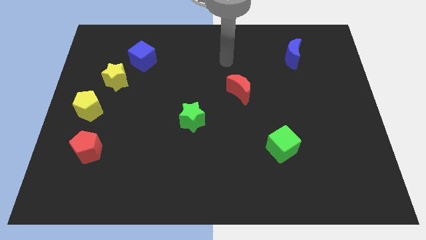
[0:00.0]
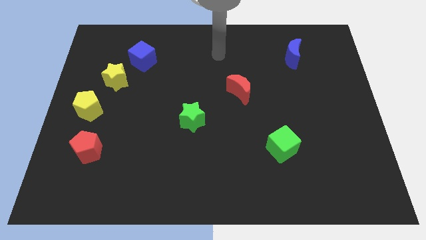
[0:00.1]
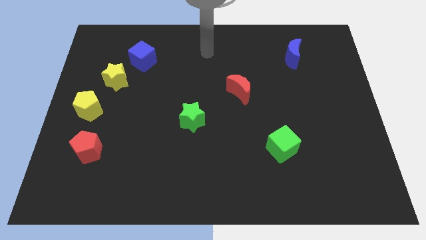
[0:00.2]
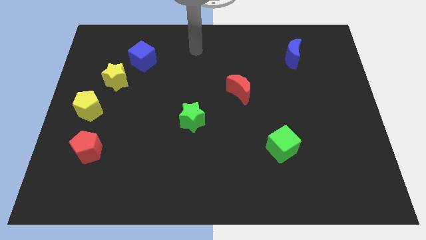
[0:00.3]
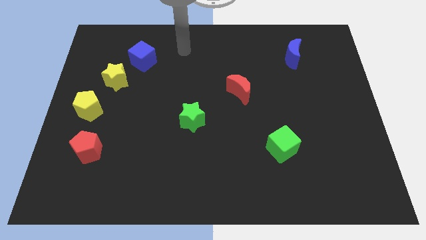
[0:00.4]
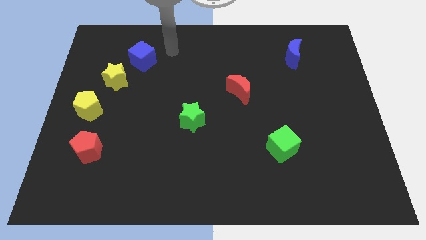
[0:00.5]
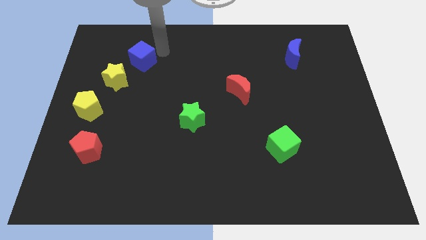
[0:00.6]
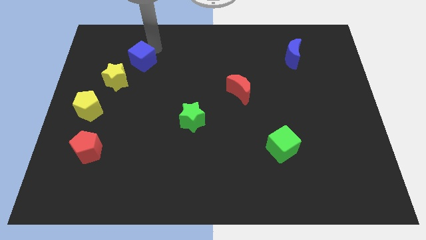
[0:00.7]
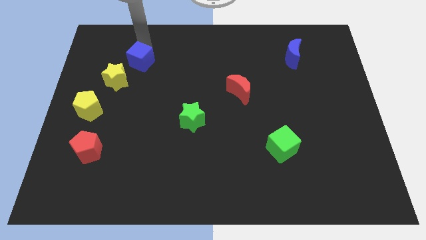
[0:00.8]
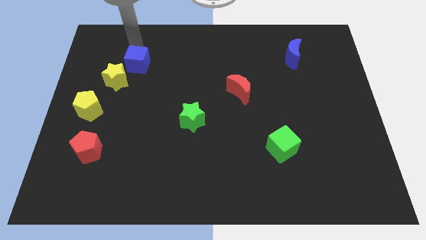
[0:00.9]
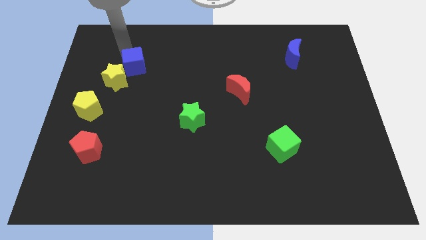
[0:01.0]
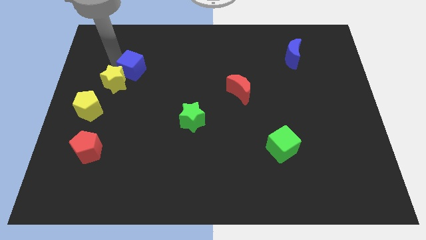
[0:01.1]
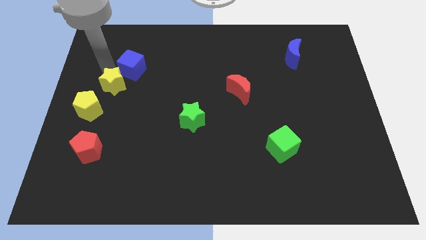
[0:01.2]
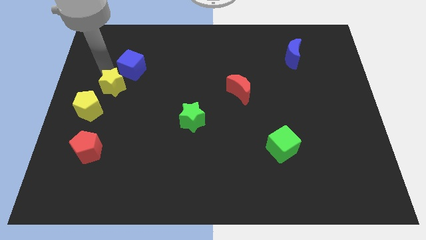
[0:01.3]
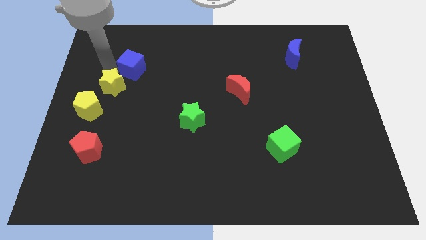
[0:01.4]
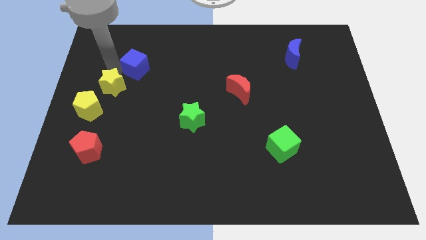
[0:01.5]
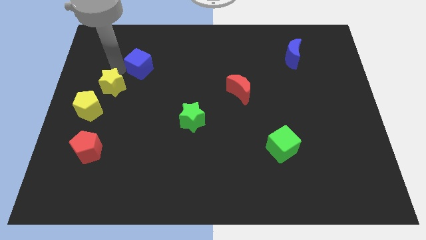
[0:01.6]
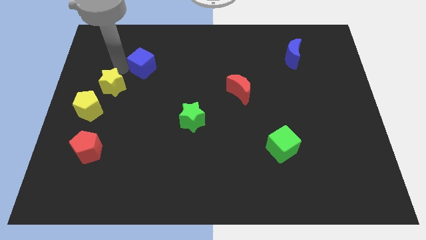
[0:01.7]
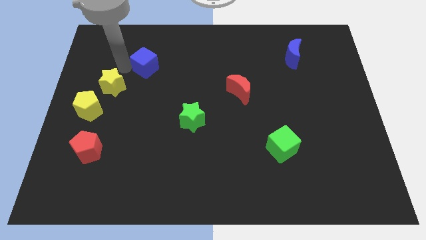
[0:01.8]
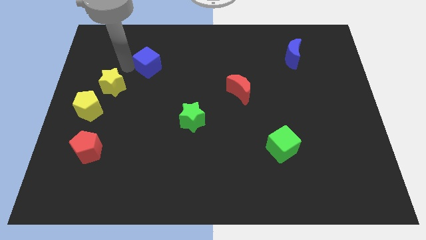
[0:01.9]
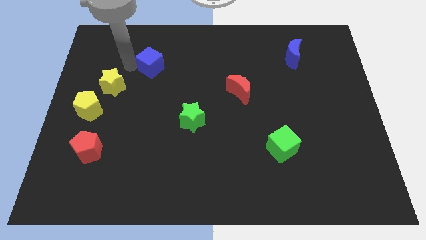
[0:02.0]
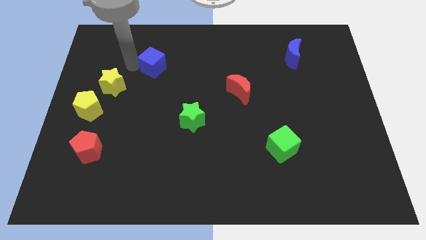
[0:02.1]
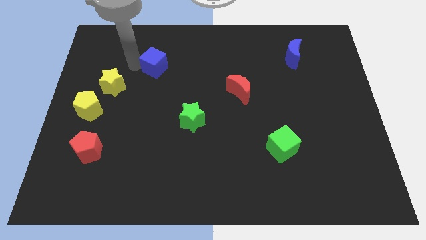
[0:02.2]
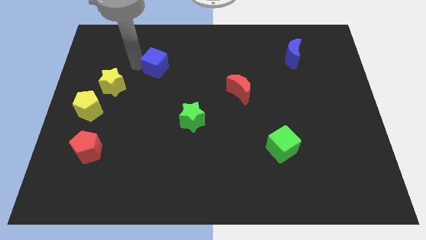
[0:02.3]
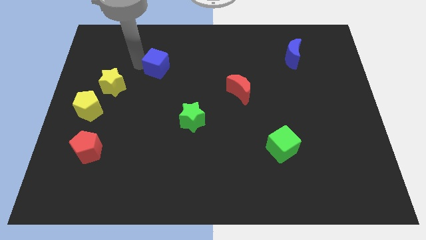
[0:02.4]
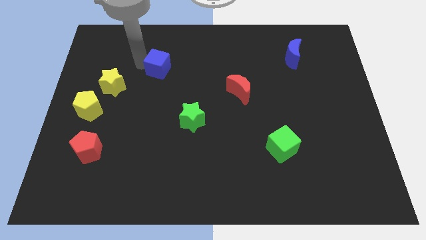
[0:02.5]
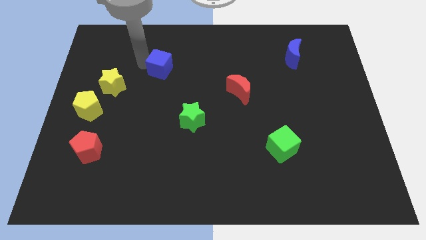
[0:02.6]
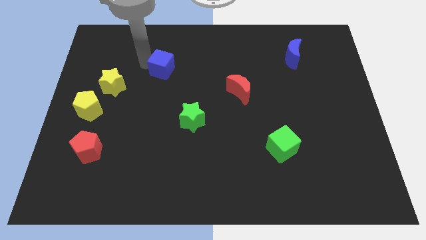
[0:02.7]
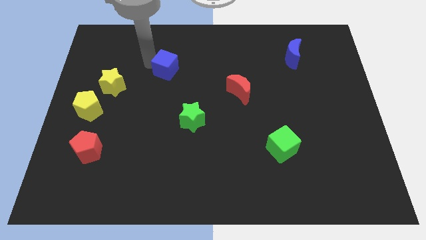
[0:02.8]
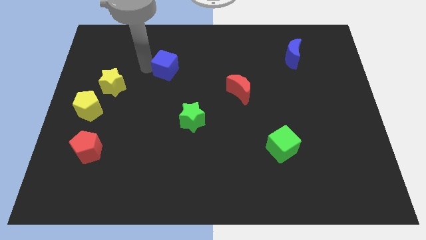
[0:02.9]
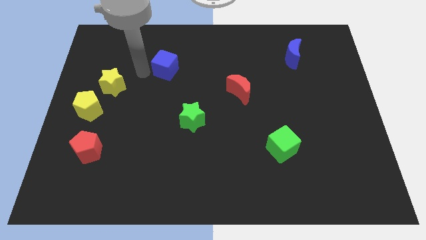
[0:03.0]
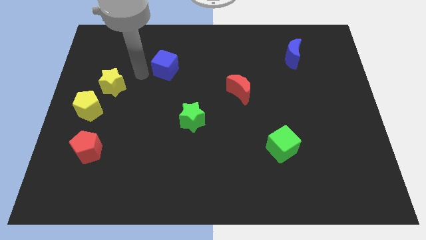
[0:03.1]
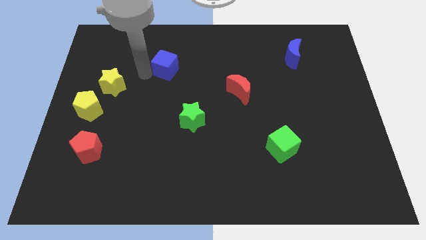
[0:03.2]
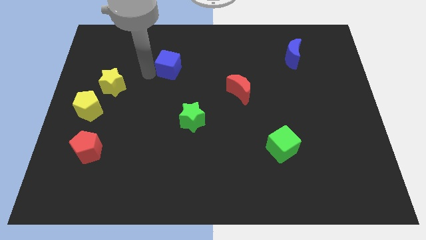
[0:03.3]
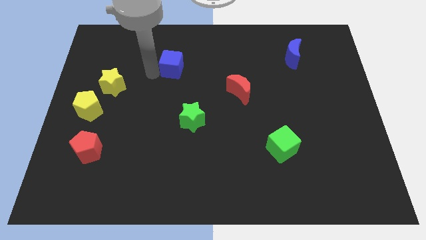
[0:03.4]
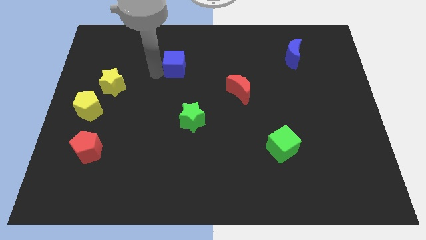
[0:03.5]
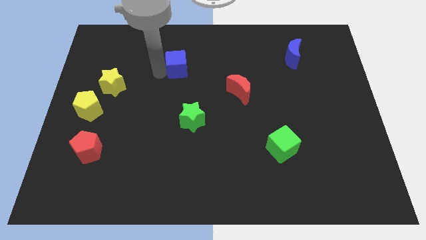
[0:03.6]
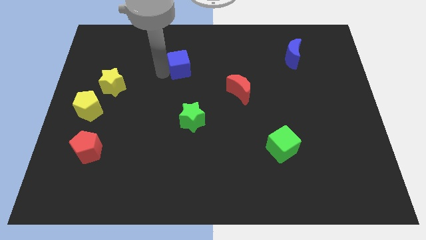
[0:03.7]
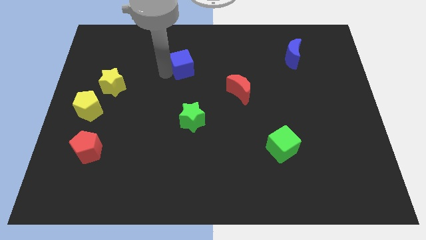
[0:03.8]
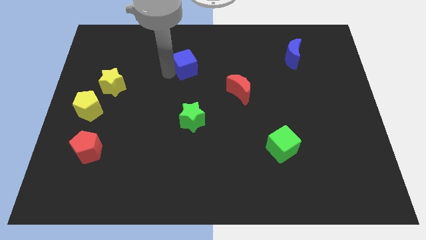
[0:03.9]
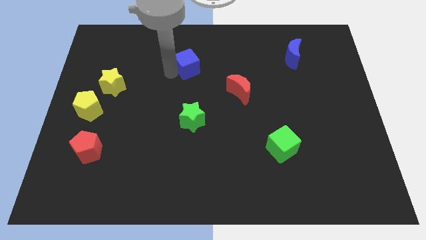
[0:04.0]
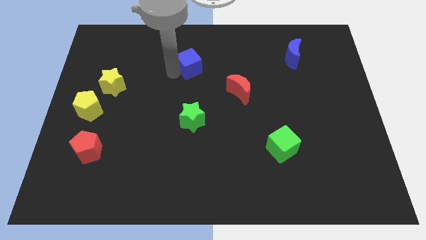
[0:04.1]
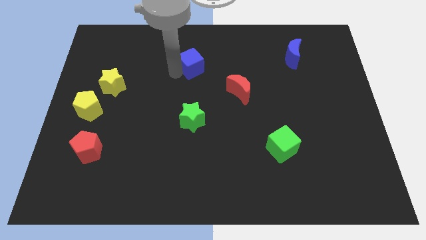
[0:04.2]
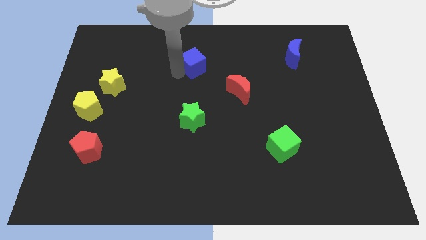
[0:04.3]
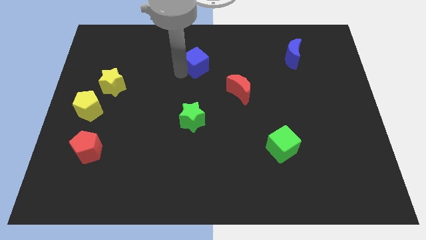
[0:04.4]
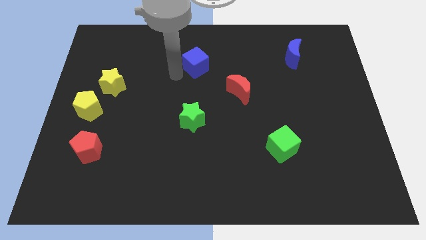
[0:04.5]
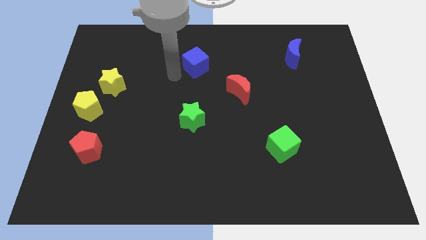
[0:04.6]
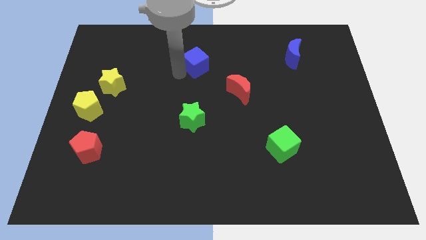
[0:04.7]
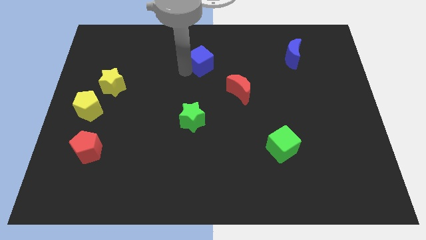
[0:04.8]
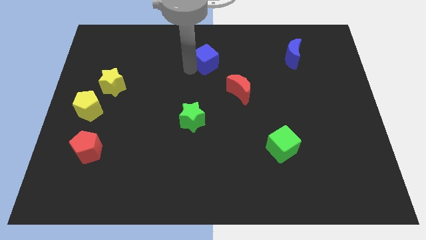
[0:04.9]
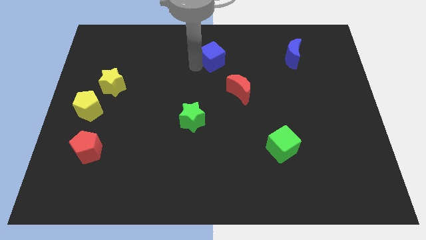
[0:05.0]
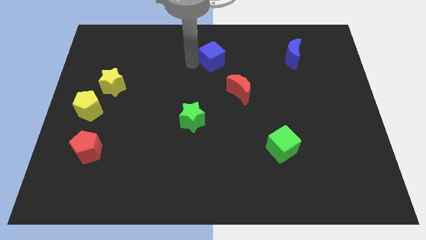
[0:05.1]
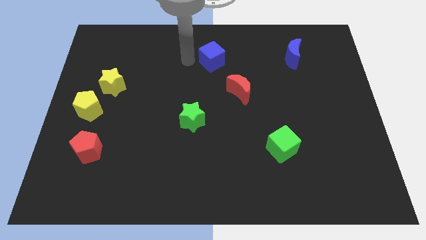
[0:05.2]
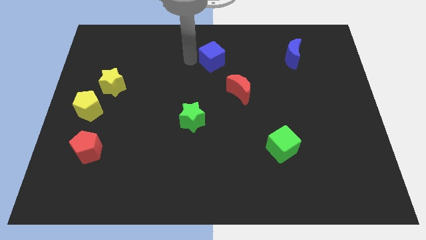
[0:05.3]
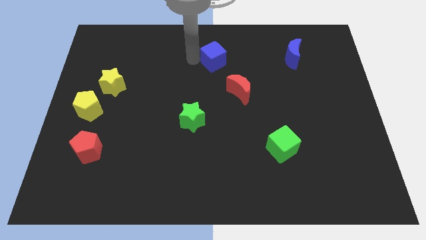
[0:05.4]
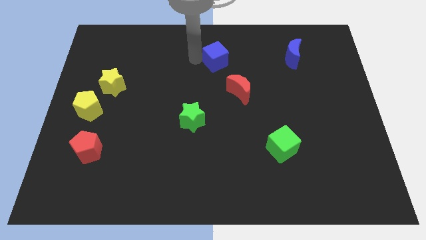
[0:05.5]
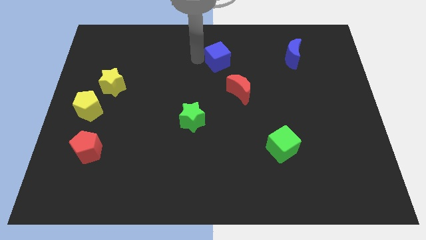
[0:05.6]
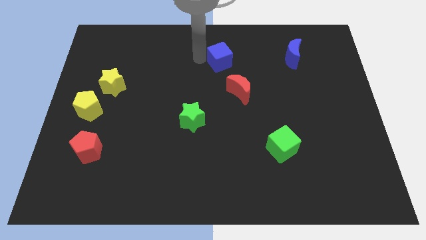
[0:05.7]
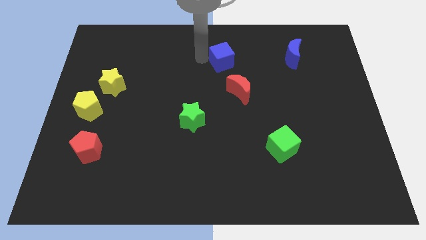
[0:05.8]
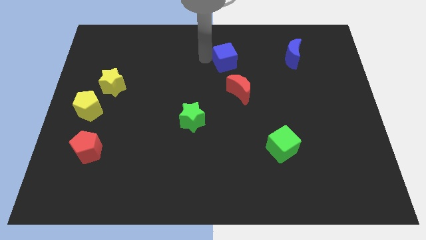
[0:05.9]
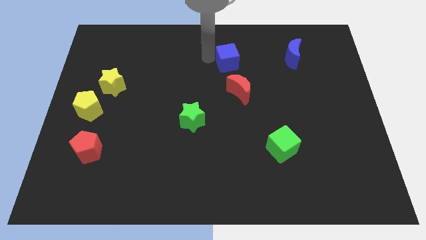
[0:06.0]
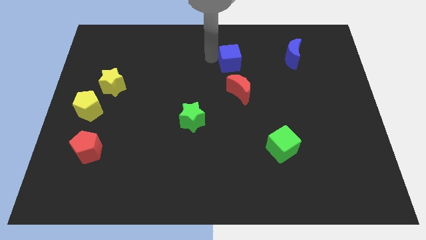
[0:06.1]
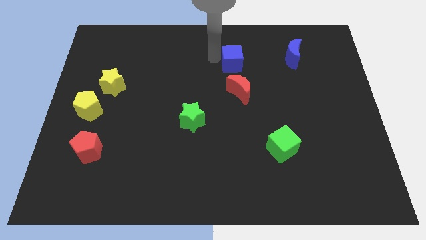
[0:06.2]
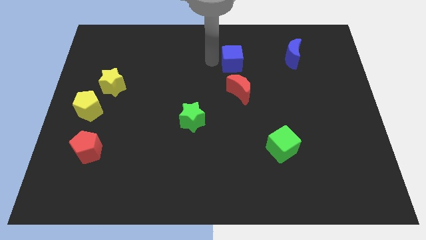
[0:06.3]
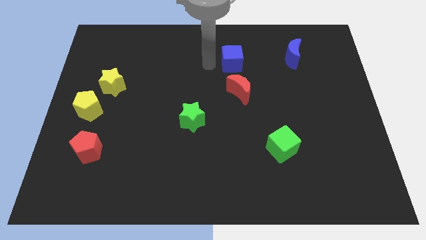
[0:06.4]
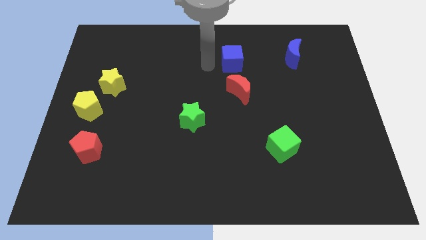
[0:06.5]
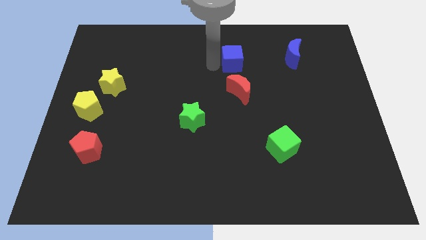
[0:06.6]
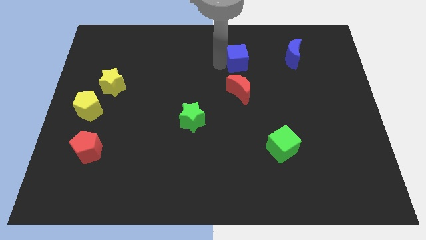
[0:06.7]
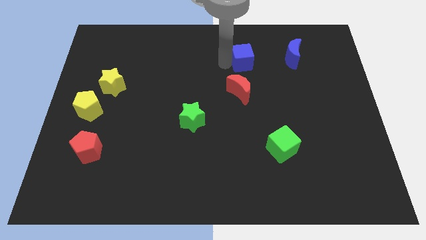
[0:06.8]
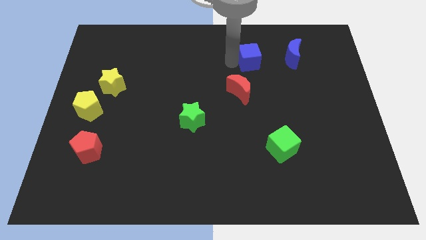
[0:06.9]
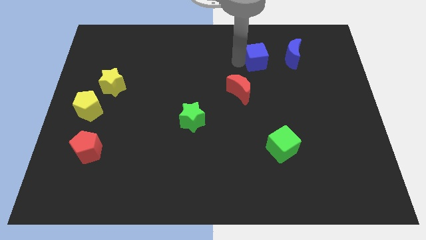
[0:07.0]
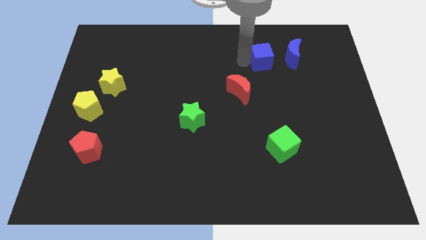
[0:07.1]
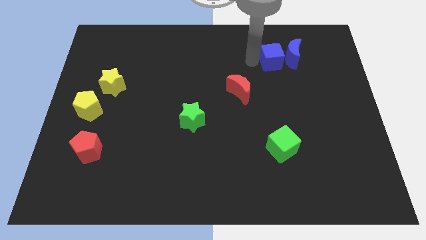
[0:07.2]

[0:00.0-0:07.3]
put the blue cube towards the blue moon
